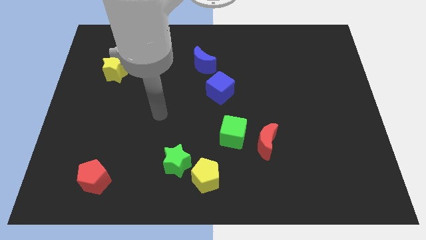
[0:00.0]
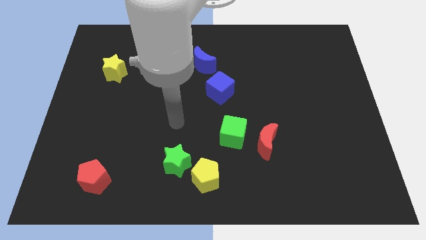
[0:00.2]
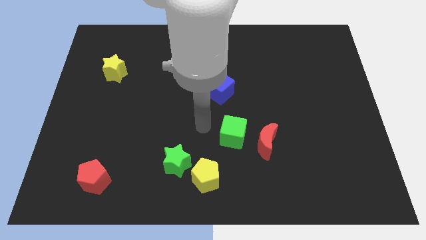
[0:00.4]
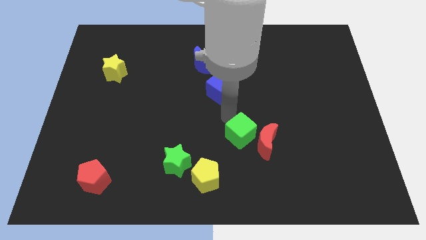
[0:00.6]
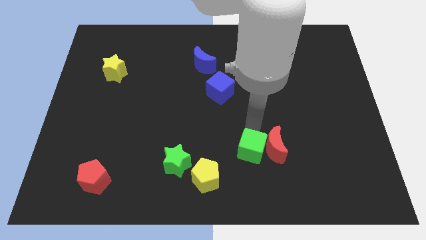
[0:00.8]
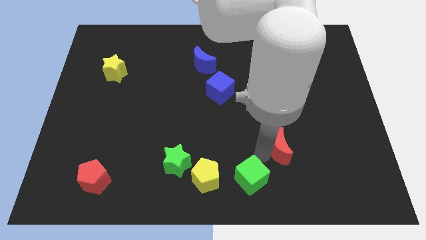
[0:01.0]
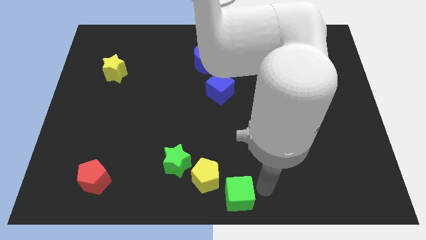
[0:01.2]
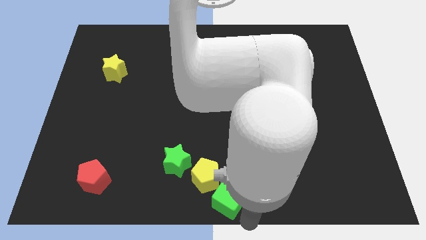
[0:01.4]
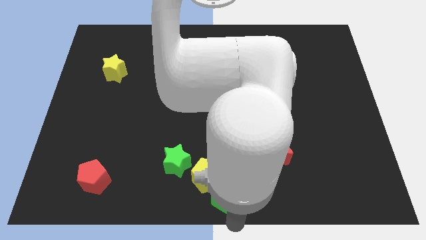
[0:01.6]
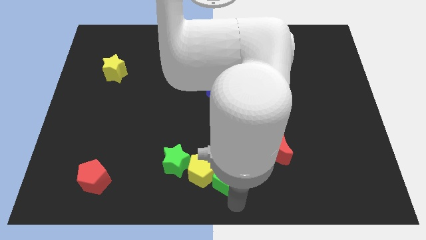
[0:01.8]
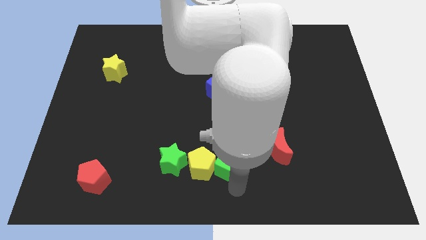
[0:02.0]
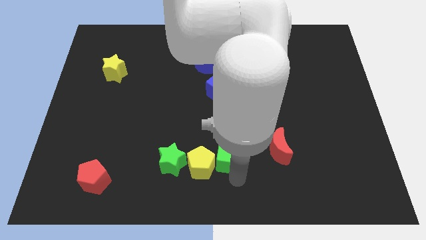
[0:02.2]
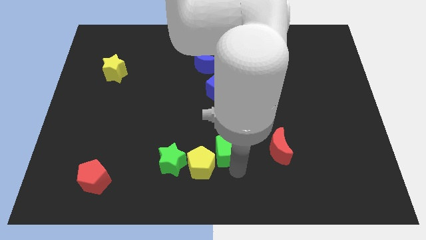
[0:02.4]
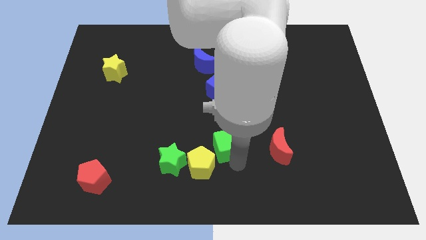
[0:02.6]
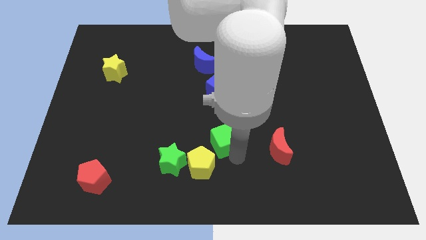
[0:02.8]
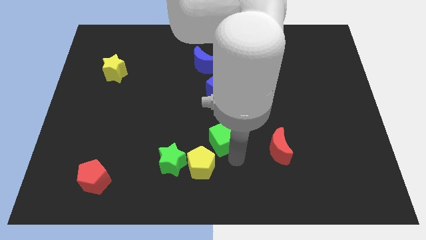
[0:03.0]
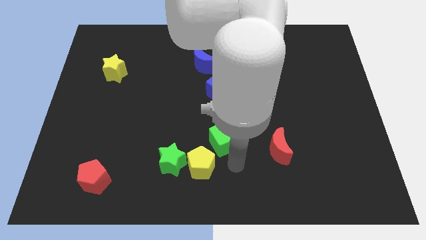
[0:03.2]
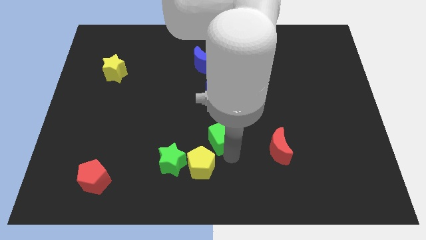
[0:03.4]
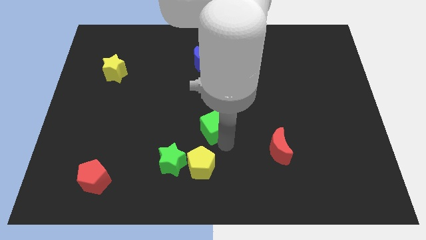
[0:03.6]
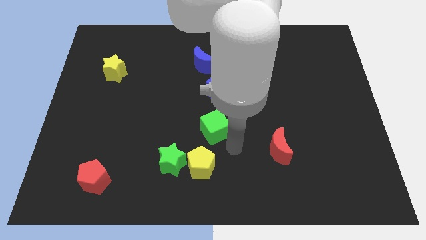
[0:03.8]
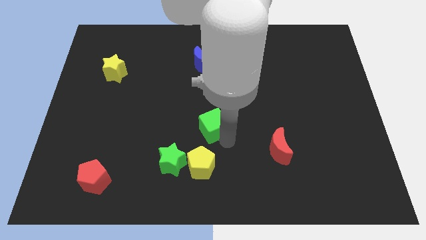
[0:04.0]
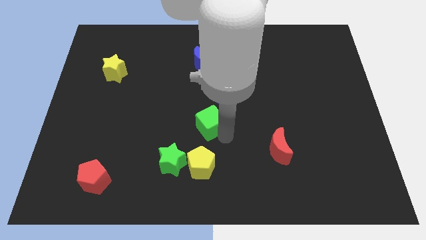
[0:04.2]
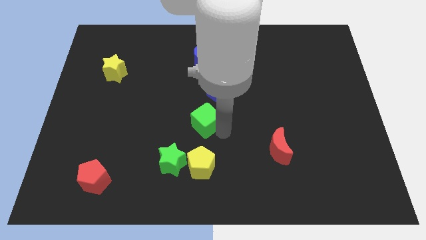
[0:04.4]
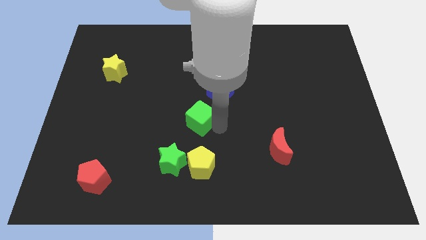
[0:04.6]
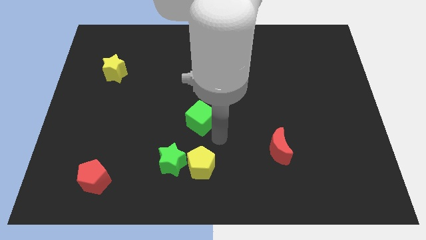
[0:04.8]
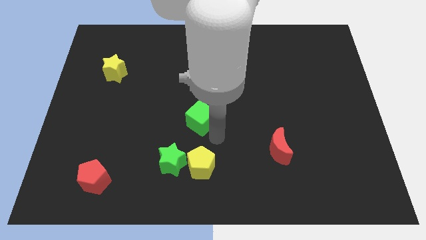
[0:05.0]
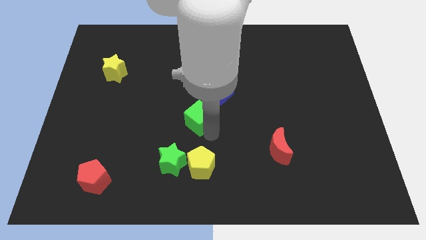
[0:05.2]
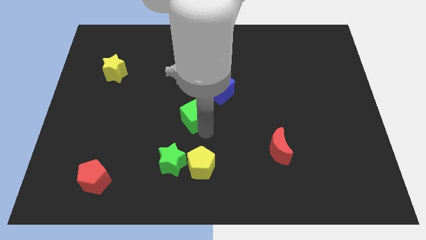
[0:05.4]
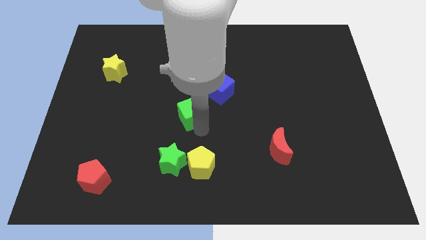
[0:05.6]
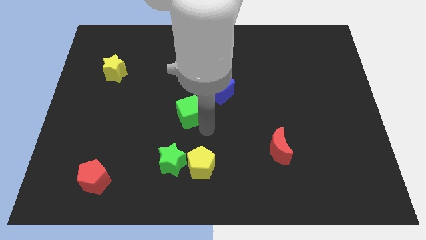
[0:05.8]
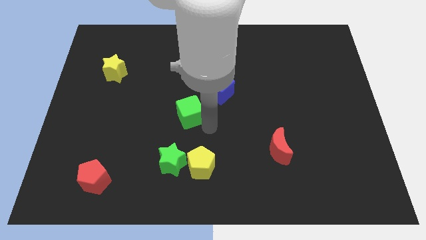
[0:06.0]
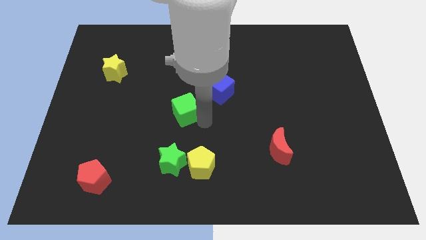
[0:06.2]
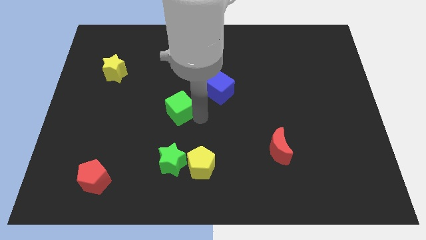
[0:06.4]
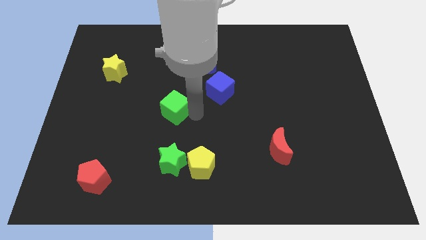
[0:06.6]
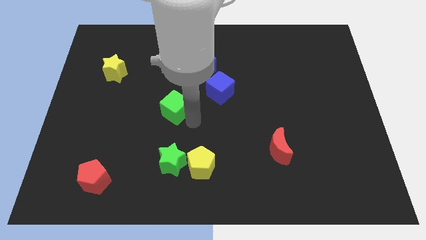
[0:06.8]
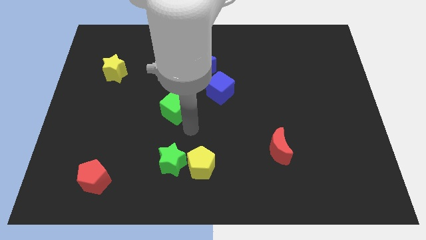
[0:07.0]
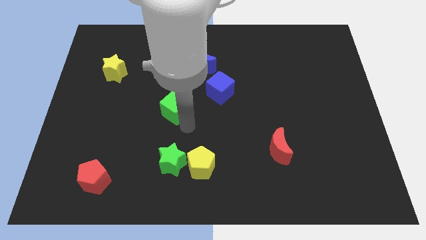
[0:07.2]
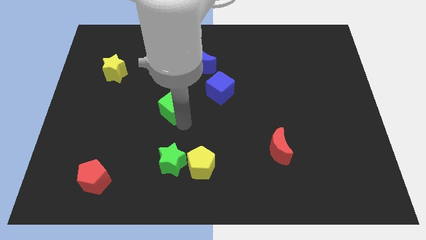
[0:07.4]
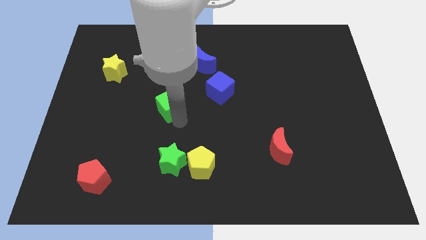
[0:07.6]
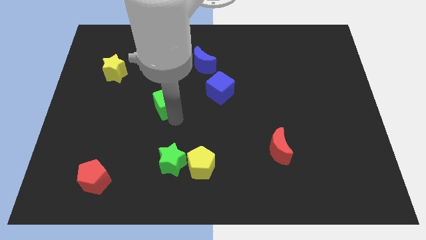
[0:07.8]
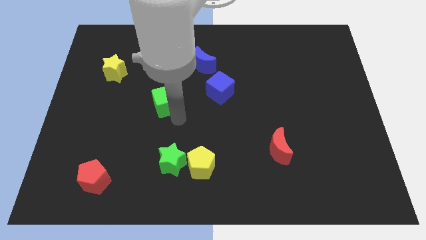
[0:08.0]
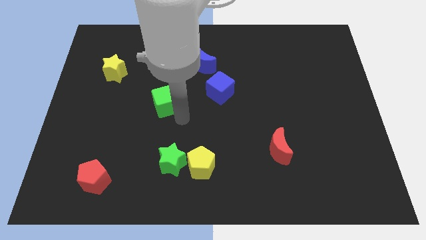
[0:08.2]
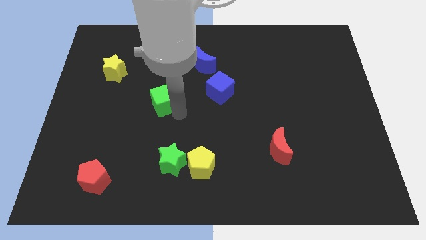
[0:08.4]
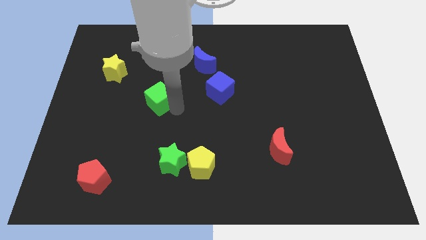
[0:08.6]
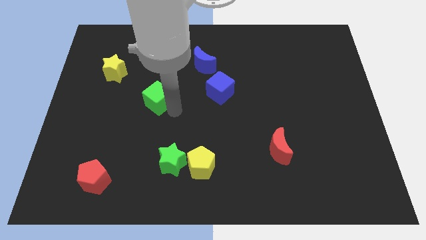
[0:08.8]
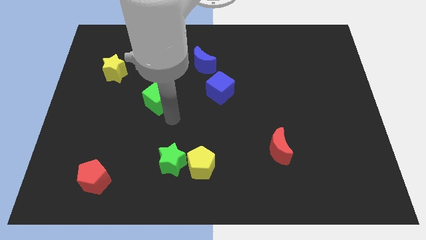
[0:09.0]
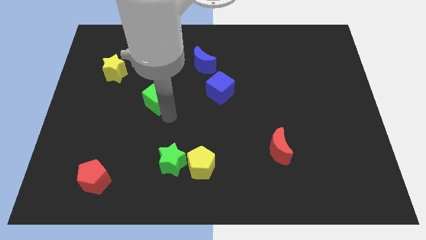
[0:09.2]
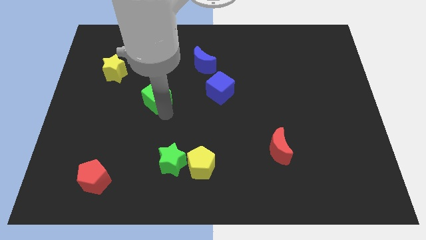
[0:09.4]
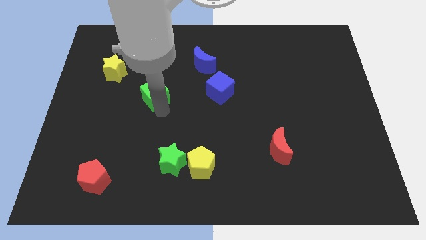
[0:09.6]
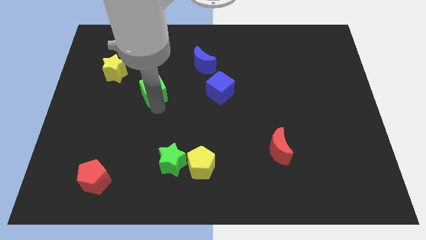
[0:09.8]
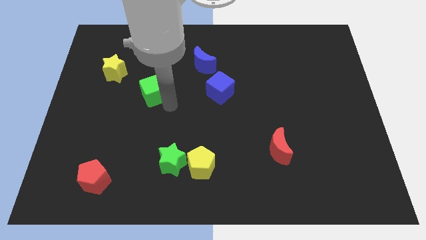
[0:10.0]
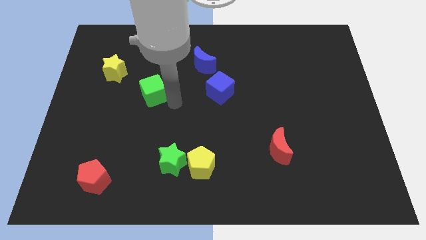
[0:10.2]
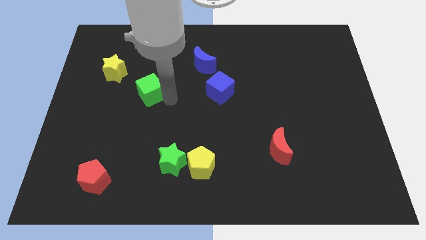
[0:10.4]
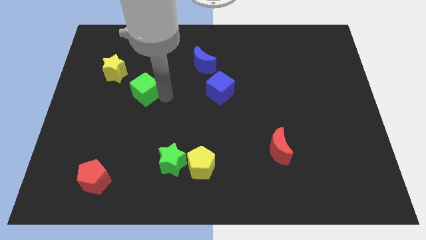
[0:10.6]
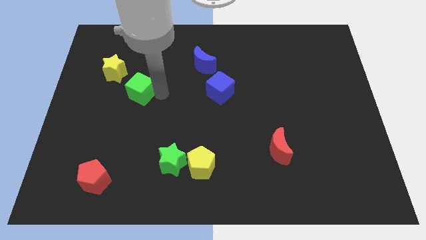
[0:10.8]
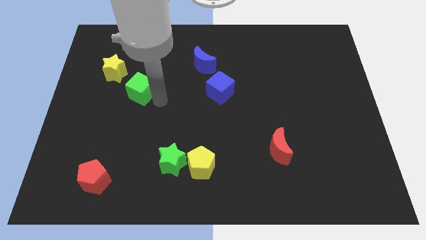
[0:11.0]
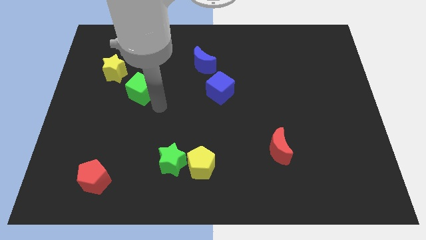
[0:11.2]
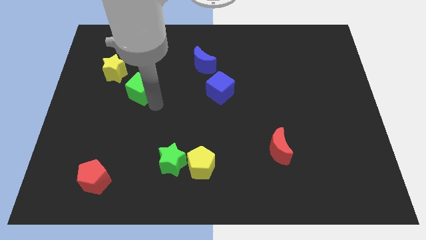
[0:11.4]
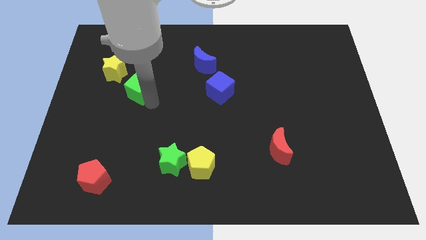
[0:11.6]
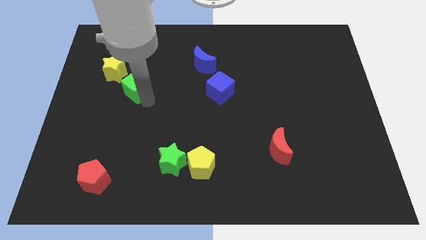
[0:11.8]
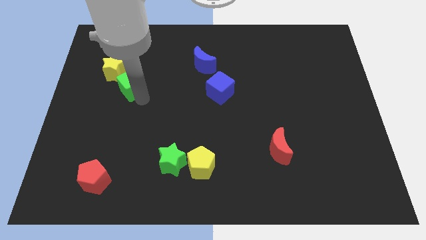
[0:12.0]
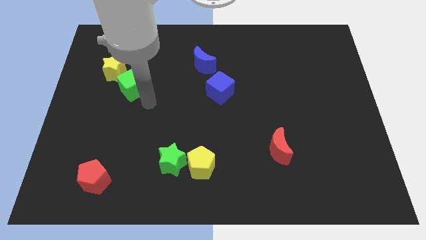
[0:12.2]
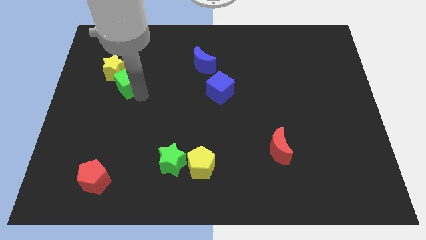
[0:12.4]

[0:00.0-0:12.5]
move the green cube next to the yellow star

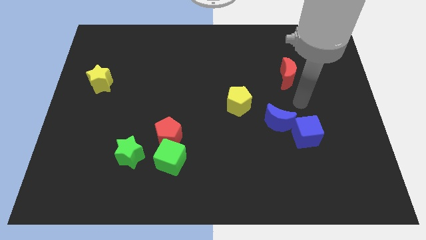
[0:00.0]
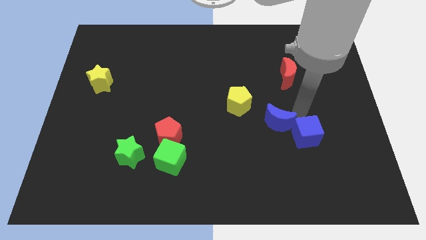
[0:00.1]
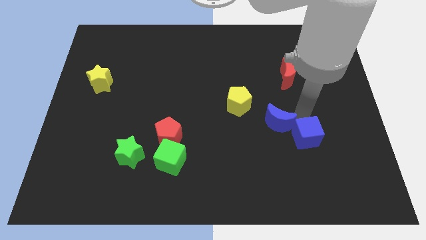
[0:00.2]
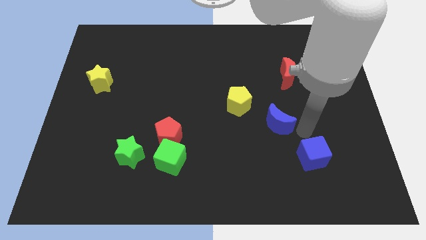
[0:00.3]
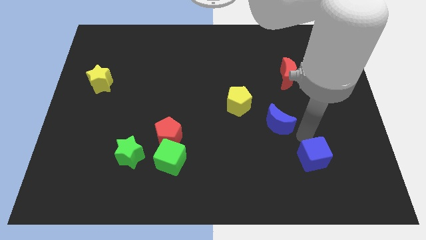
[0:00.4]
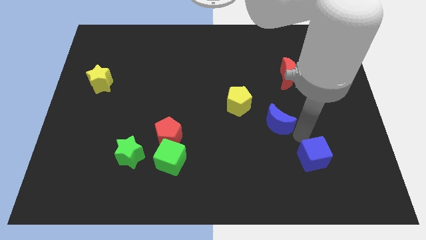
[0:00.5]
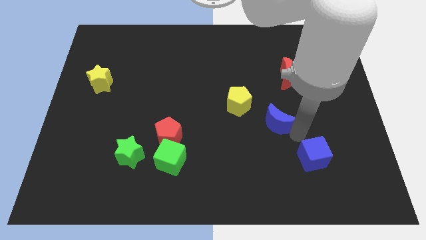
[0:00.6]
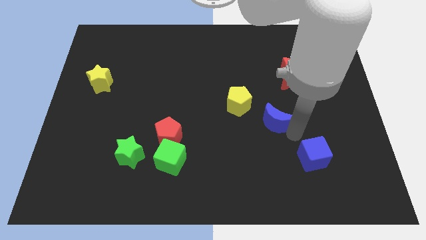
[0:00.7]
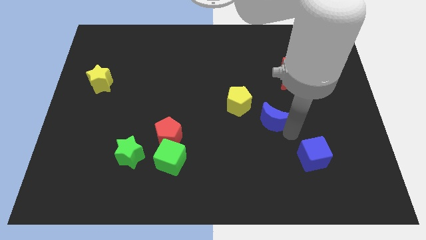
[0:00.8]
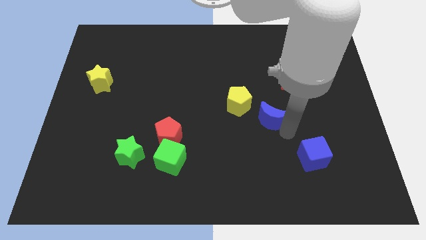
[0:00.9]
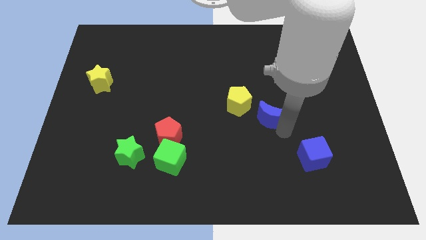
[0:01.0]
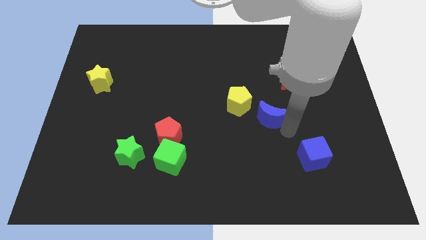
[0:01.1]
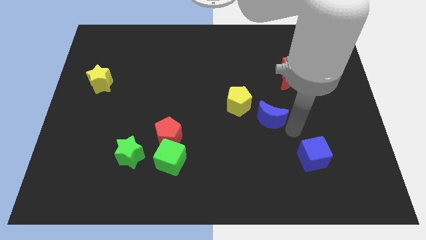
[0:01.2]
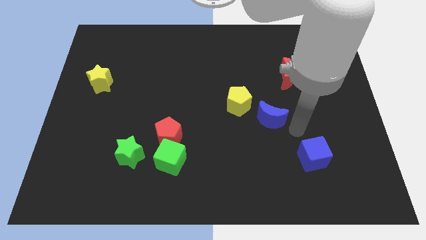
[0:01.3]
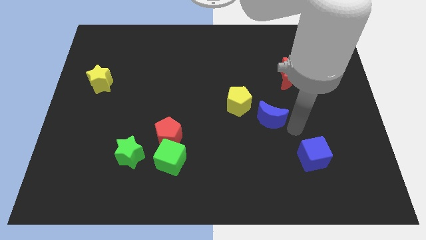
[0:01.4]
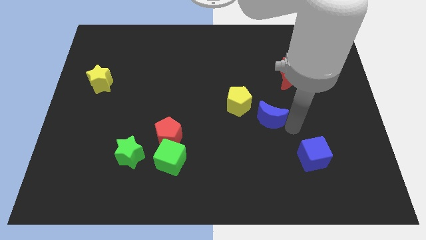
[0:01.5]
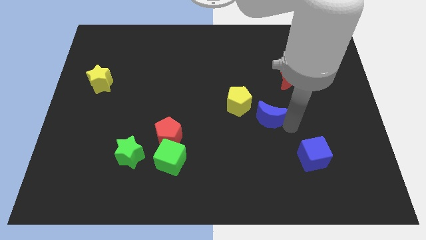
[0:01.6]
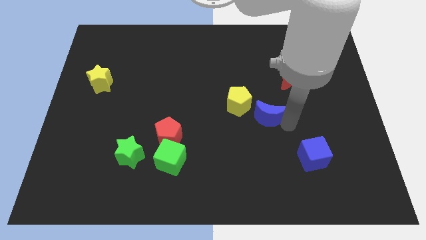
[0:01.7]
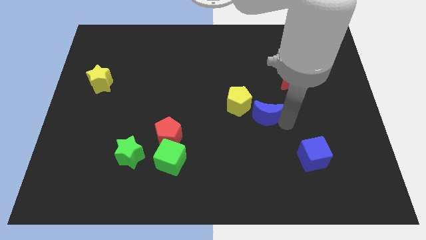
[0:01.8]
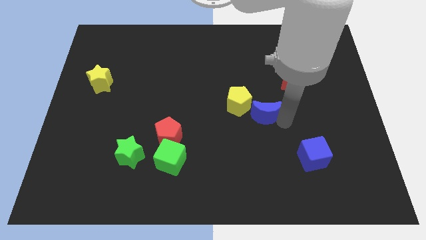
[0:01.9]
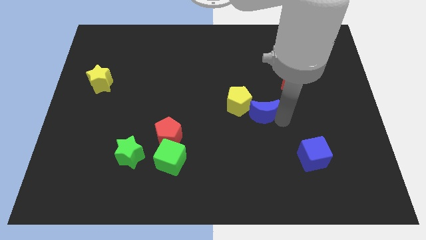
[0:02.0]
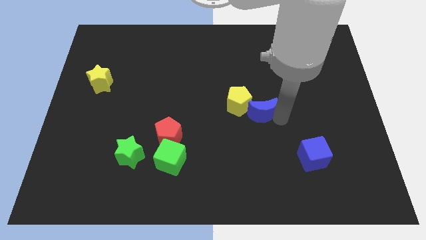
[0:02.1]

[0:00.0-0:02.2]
put the blue moon towards the yellow pentagon
